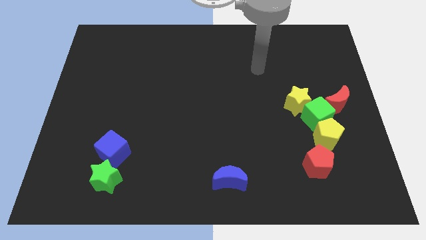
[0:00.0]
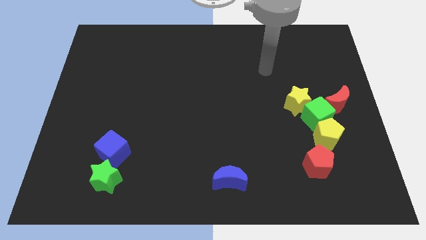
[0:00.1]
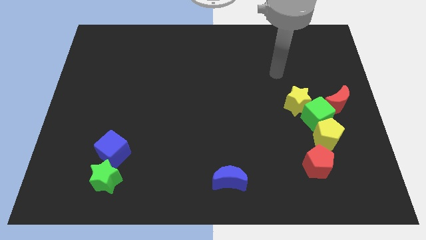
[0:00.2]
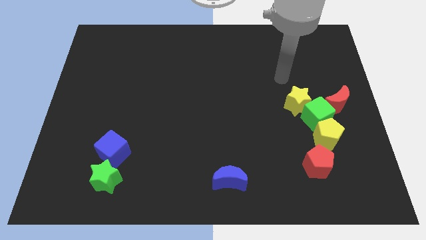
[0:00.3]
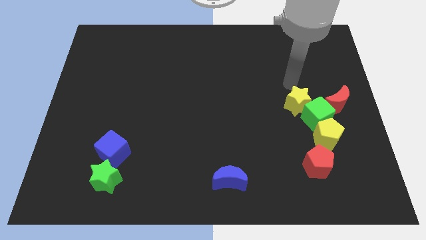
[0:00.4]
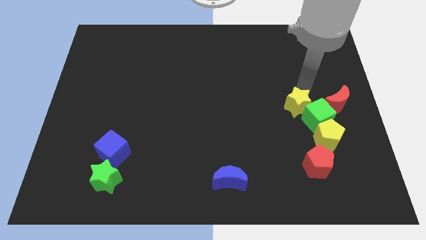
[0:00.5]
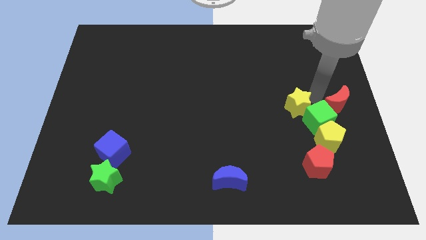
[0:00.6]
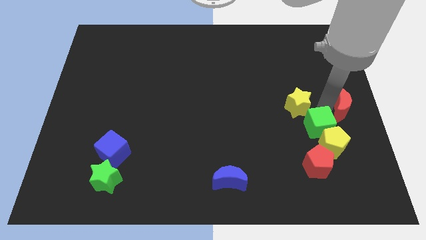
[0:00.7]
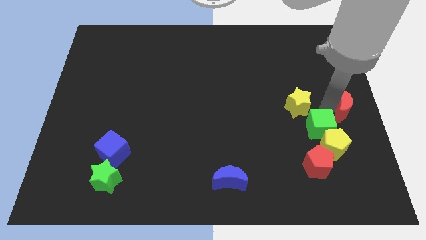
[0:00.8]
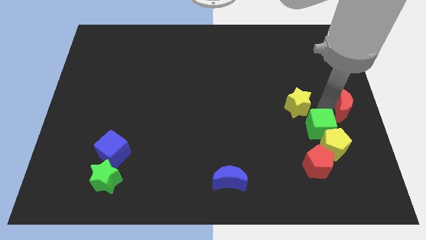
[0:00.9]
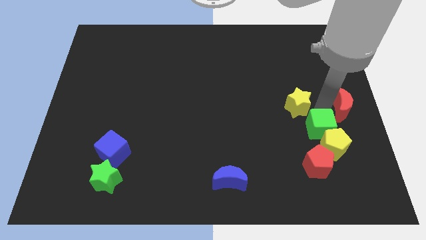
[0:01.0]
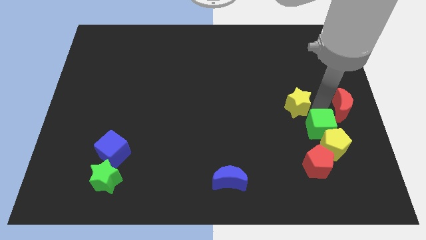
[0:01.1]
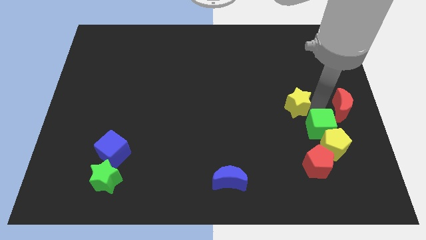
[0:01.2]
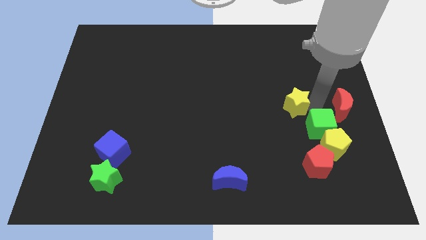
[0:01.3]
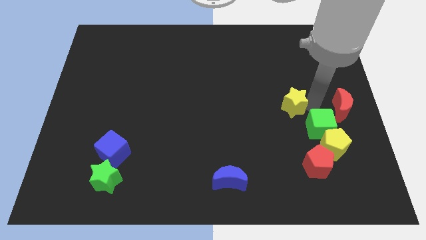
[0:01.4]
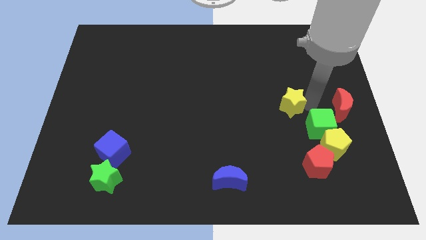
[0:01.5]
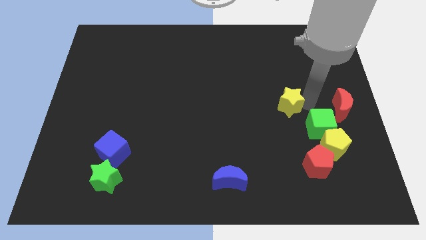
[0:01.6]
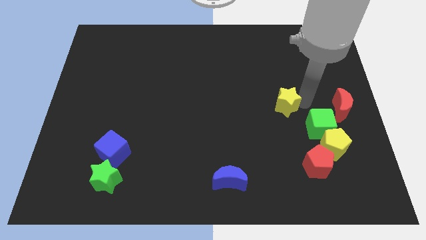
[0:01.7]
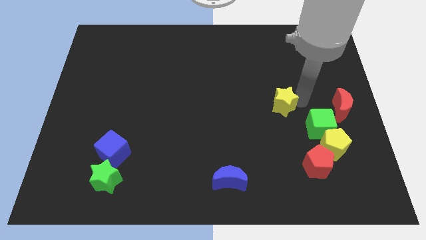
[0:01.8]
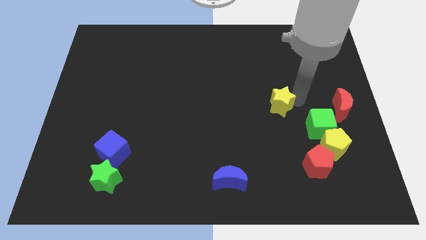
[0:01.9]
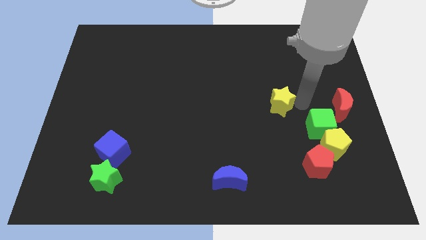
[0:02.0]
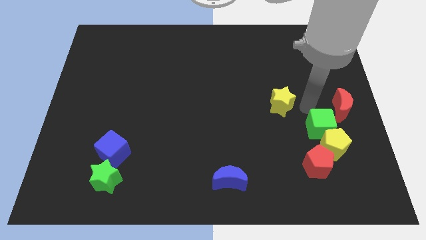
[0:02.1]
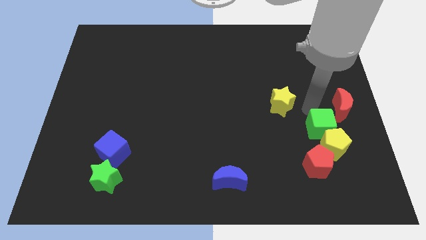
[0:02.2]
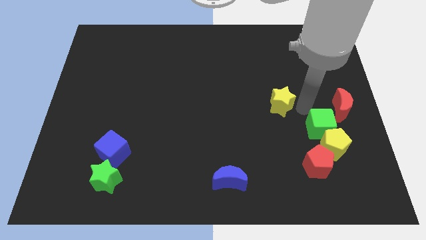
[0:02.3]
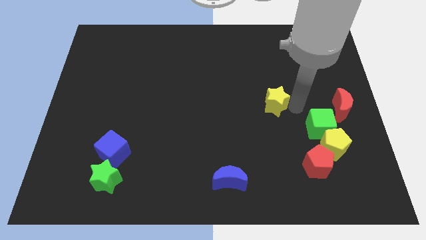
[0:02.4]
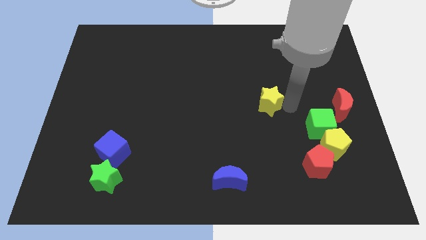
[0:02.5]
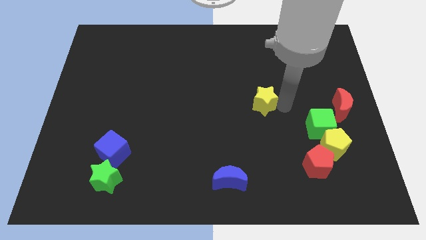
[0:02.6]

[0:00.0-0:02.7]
push the yellow star left somewhat

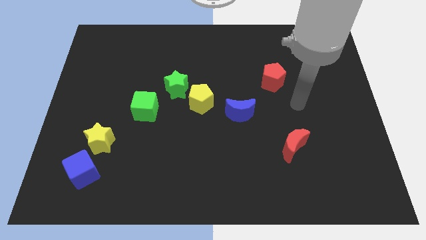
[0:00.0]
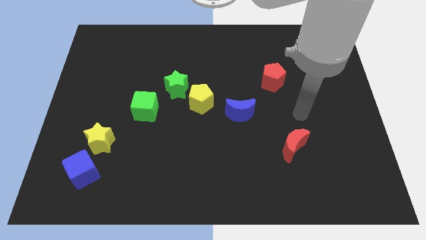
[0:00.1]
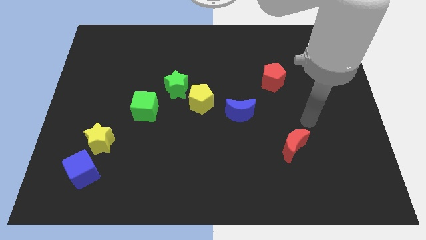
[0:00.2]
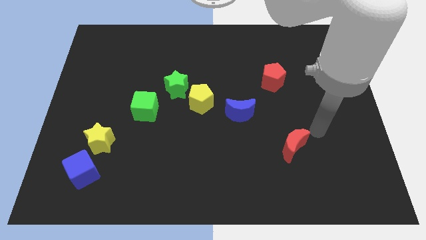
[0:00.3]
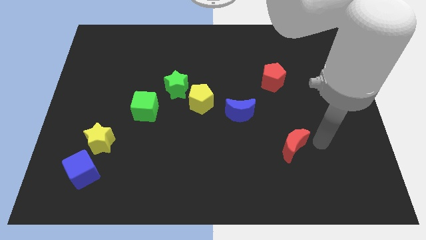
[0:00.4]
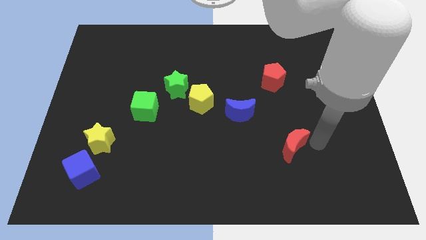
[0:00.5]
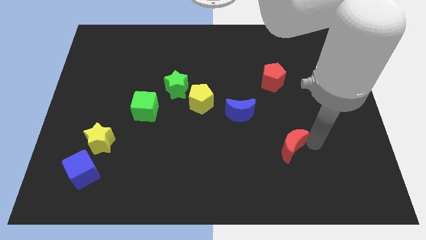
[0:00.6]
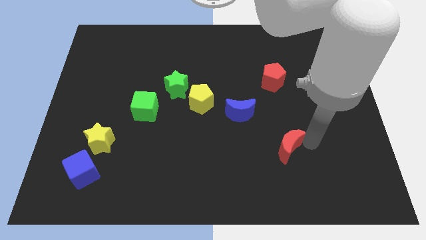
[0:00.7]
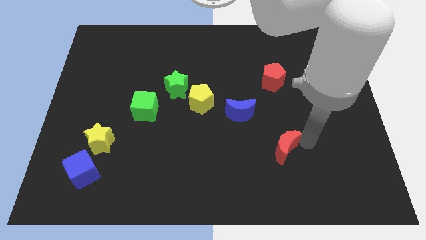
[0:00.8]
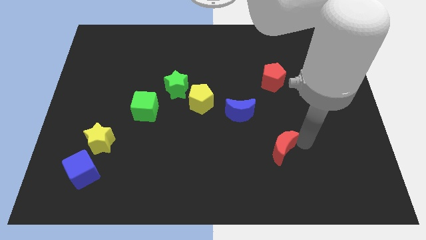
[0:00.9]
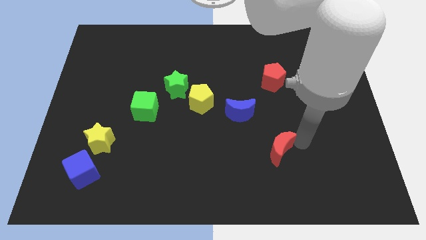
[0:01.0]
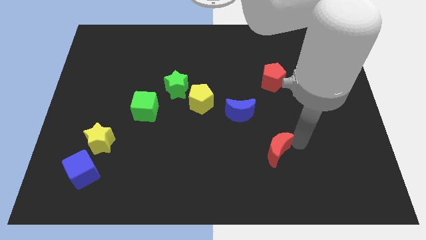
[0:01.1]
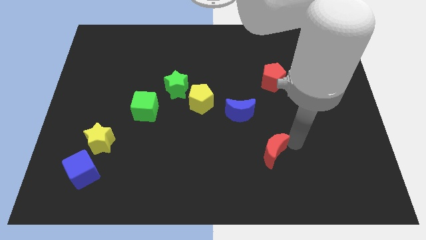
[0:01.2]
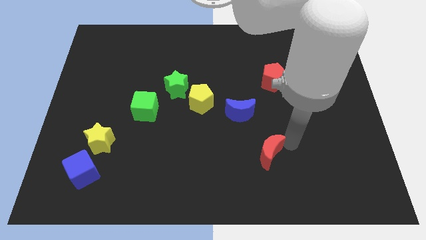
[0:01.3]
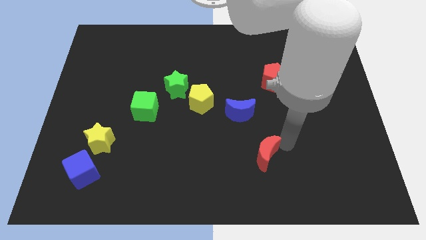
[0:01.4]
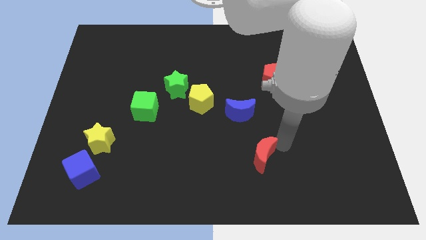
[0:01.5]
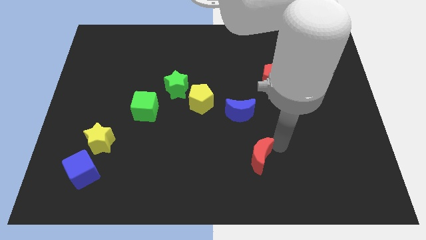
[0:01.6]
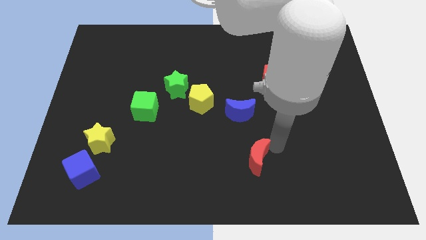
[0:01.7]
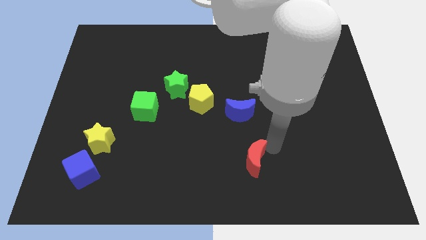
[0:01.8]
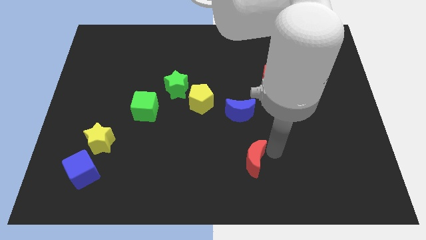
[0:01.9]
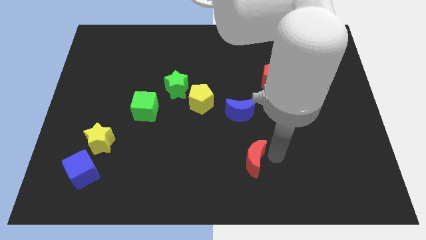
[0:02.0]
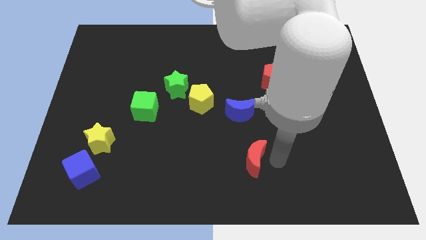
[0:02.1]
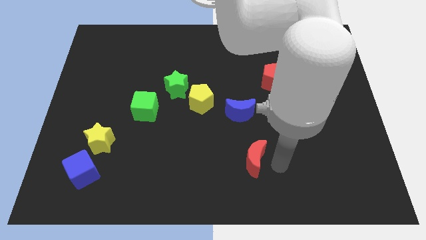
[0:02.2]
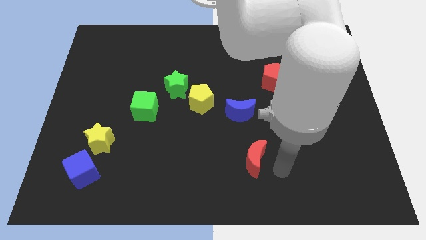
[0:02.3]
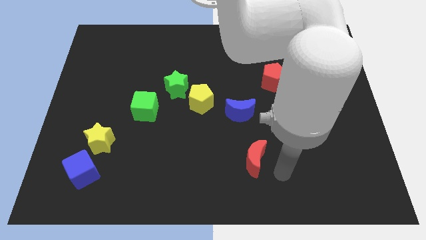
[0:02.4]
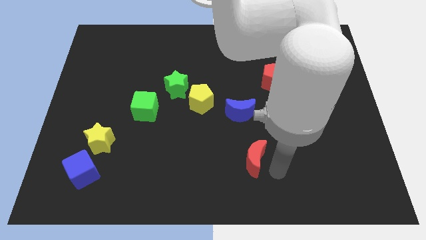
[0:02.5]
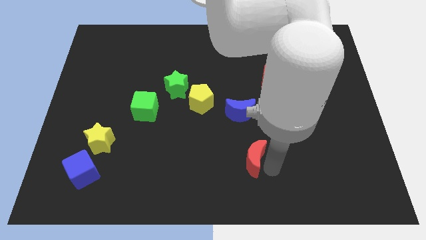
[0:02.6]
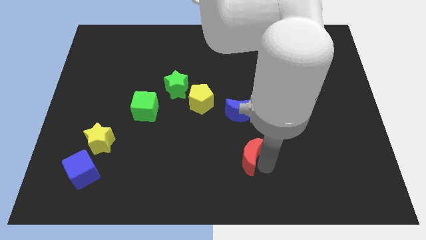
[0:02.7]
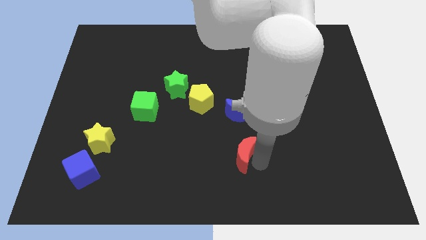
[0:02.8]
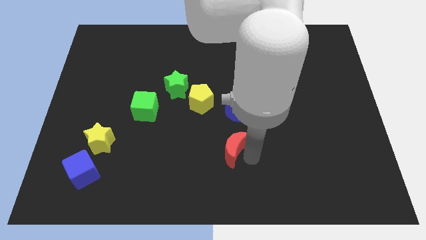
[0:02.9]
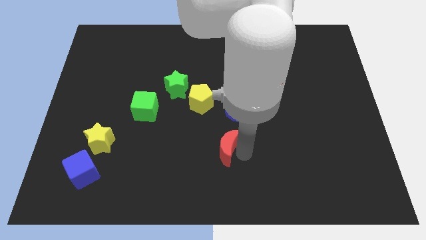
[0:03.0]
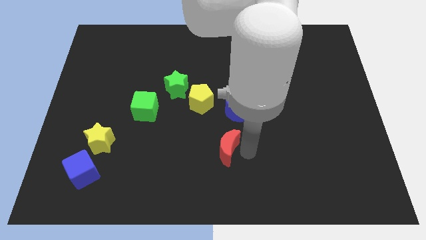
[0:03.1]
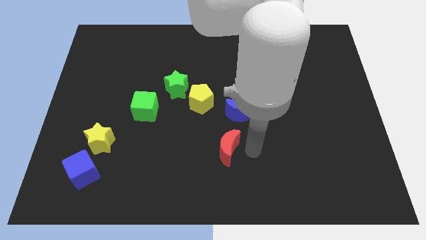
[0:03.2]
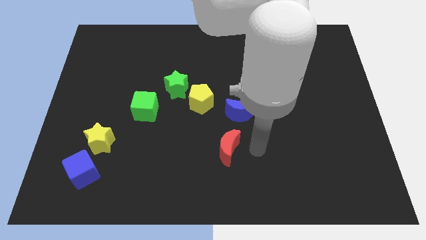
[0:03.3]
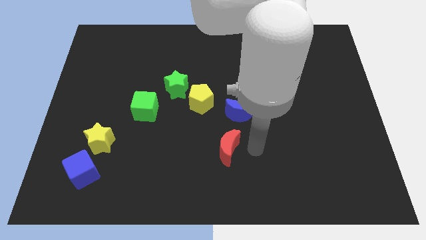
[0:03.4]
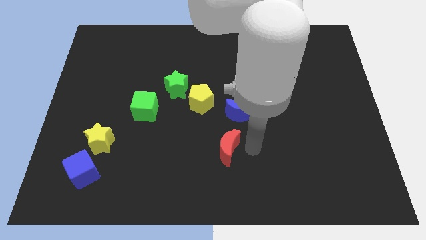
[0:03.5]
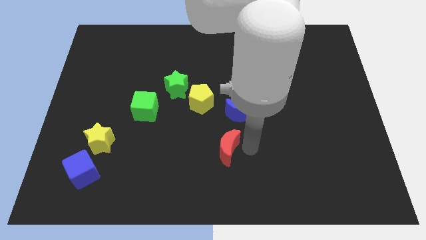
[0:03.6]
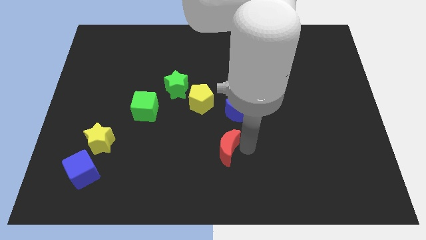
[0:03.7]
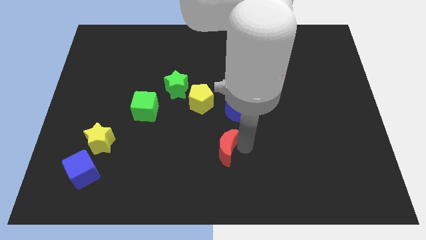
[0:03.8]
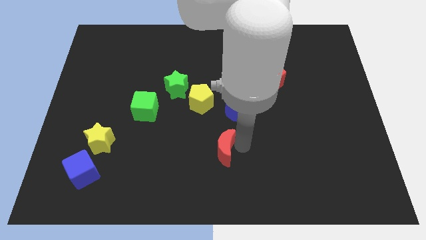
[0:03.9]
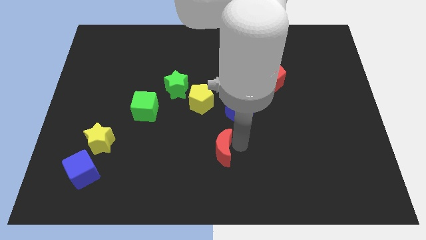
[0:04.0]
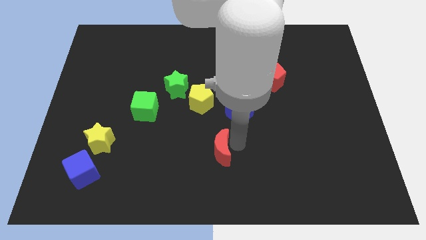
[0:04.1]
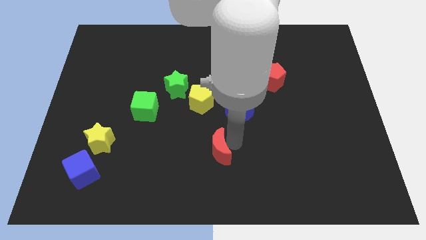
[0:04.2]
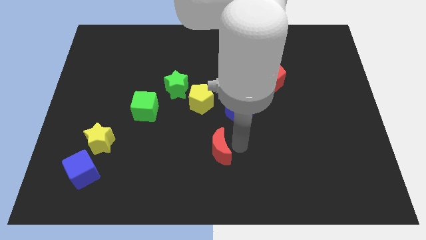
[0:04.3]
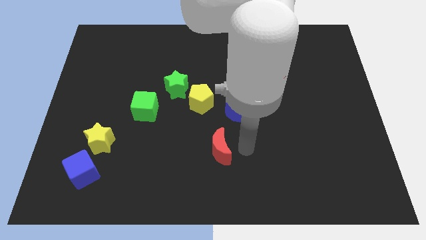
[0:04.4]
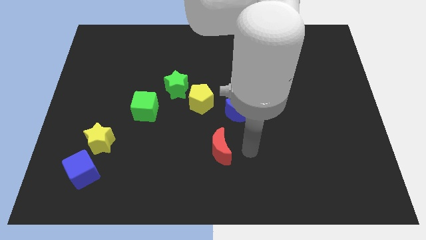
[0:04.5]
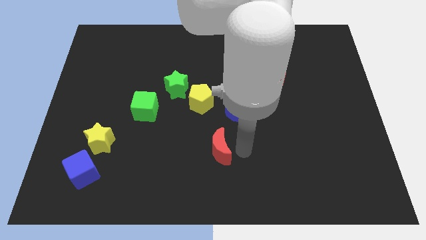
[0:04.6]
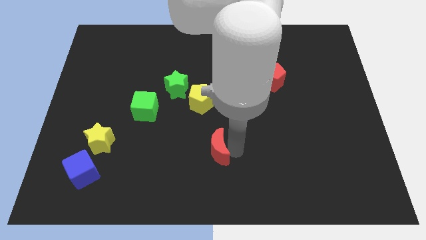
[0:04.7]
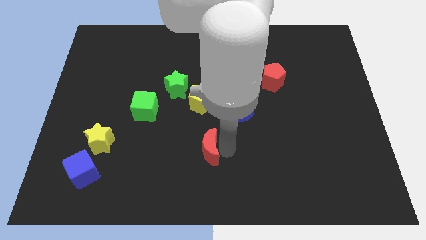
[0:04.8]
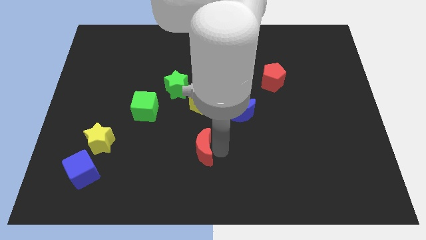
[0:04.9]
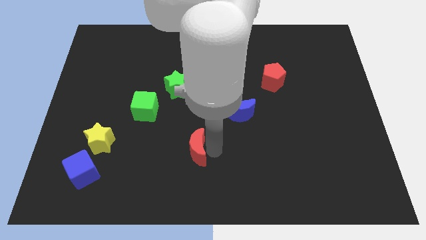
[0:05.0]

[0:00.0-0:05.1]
push the red moon to the left
